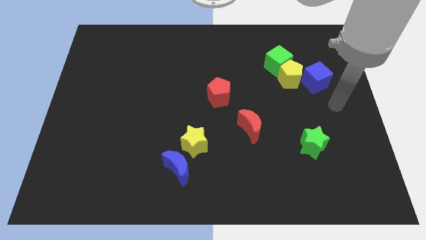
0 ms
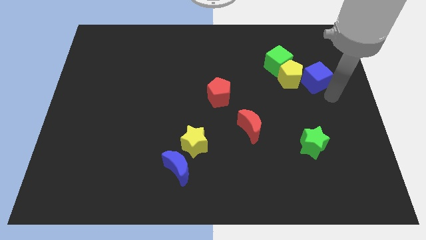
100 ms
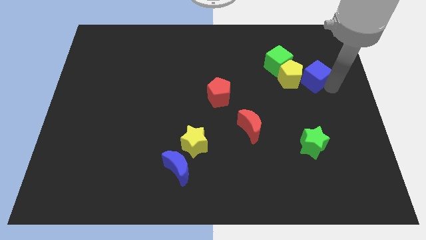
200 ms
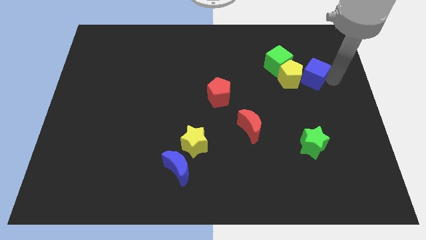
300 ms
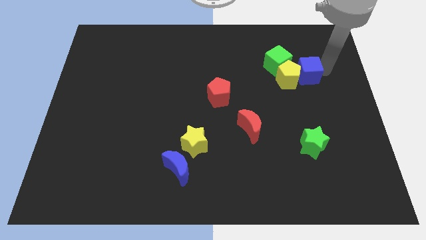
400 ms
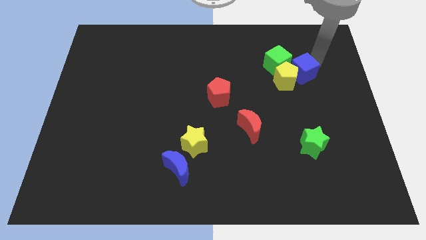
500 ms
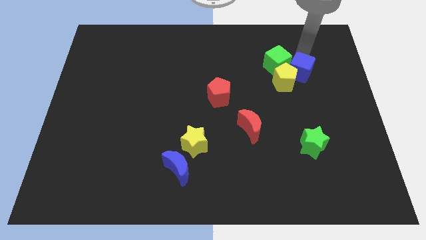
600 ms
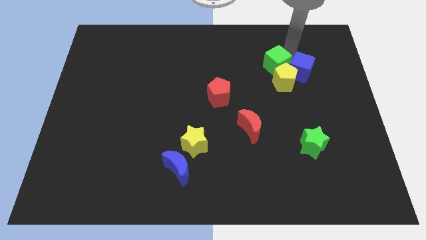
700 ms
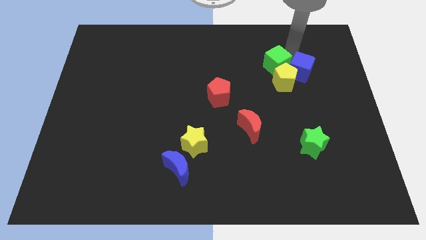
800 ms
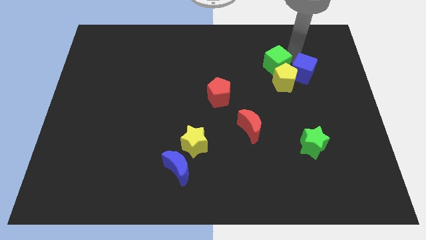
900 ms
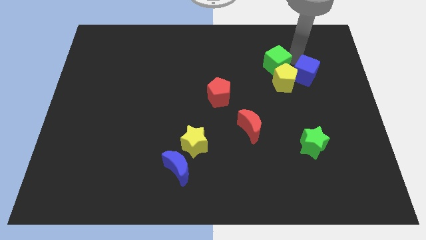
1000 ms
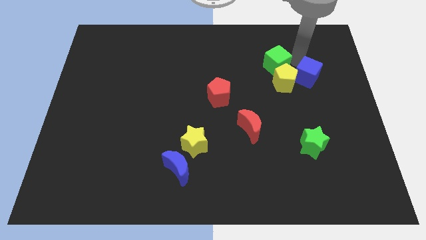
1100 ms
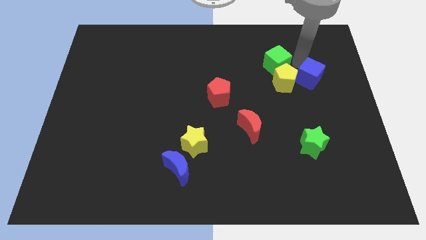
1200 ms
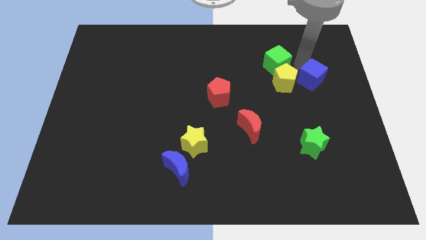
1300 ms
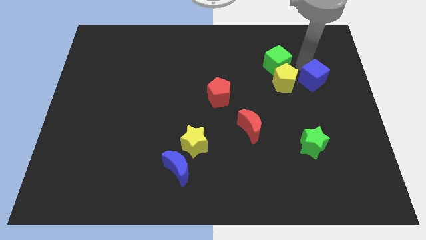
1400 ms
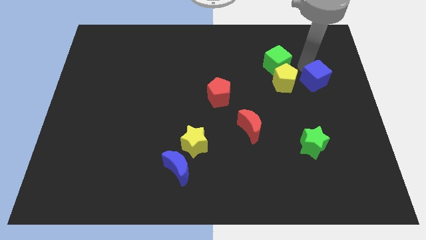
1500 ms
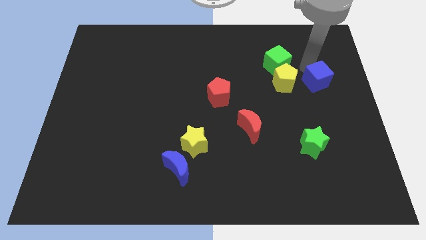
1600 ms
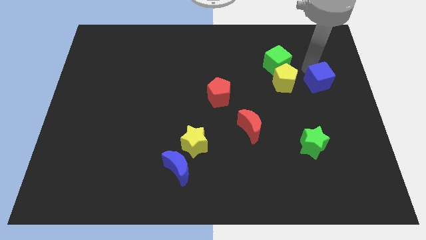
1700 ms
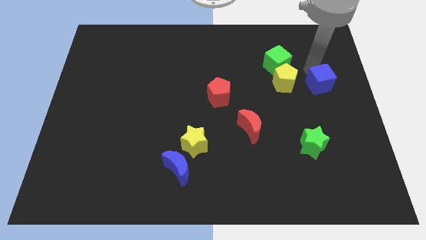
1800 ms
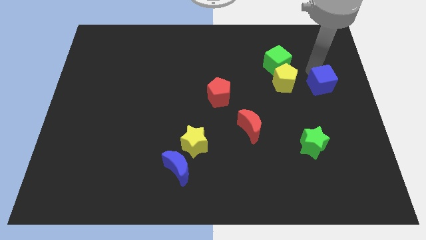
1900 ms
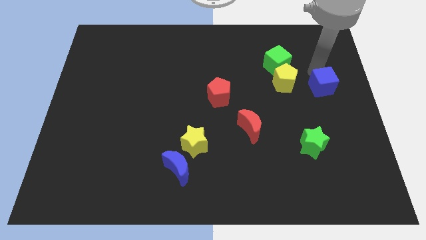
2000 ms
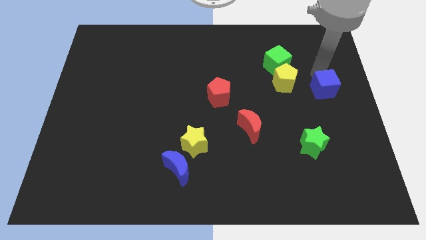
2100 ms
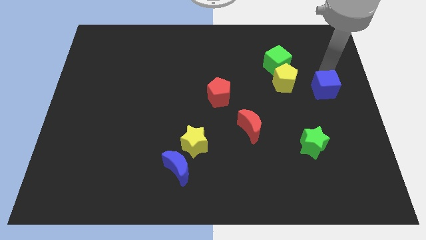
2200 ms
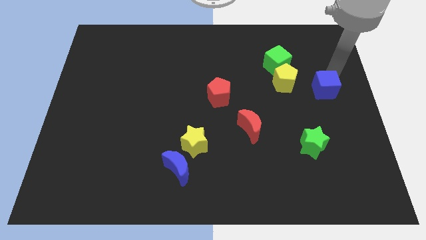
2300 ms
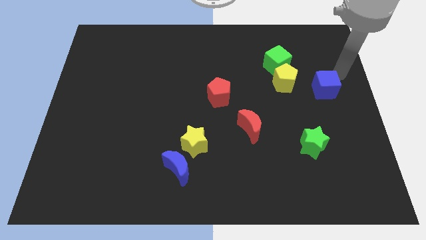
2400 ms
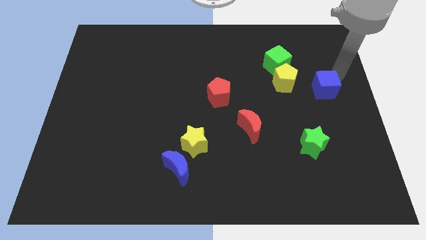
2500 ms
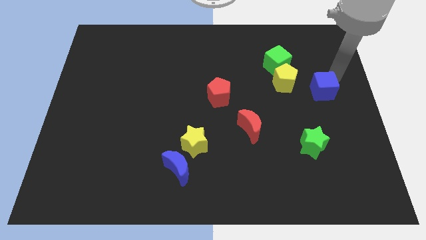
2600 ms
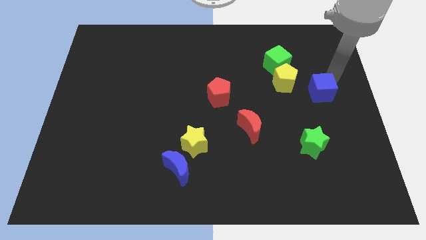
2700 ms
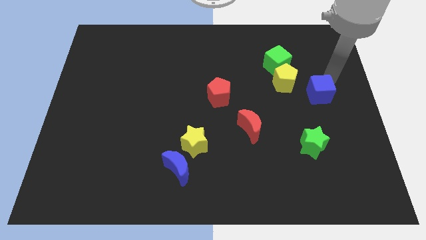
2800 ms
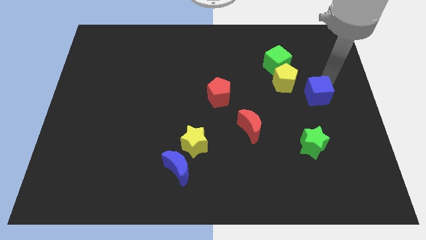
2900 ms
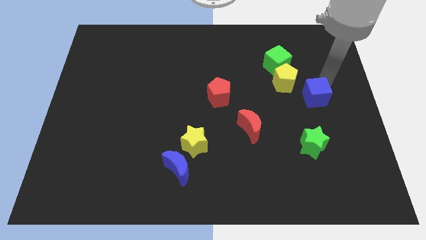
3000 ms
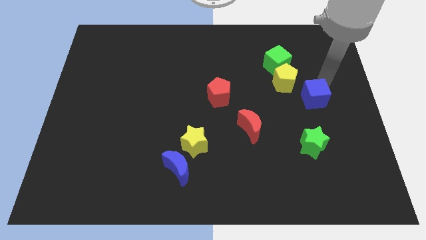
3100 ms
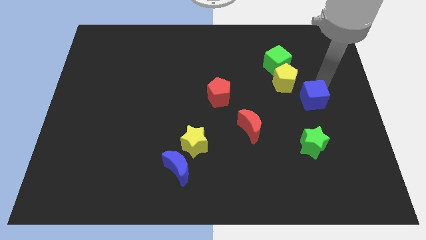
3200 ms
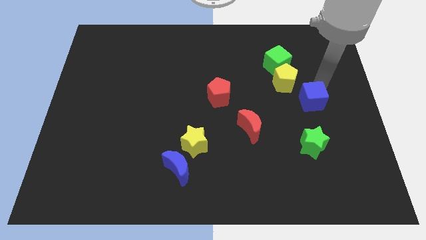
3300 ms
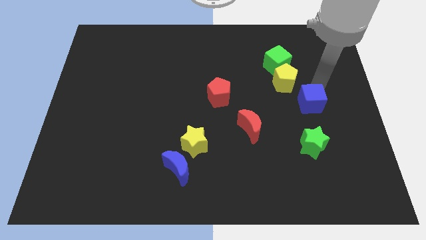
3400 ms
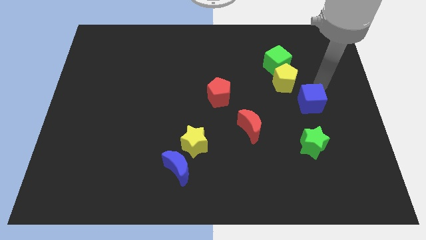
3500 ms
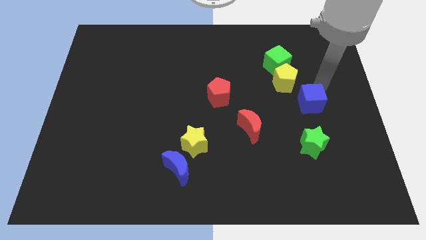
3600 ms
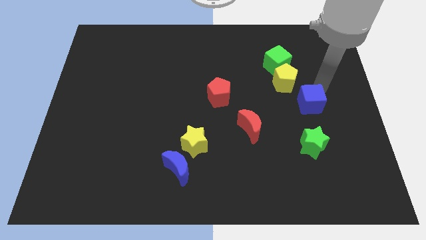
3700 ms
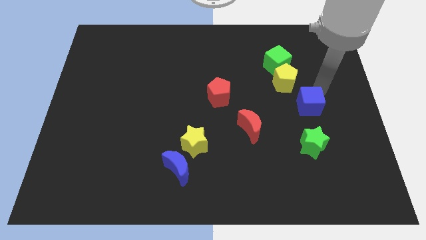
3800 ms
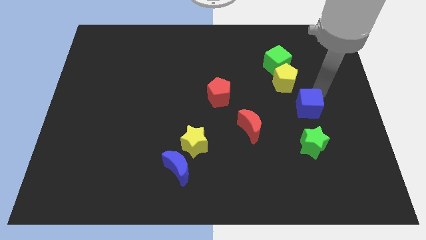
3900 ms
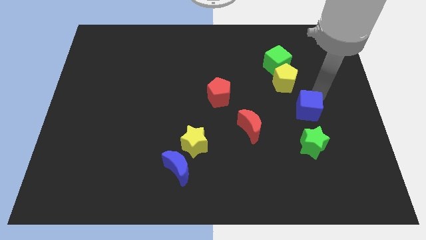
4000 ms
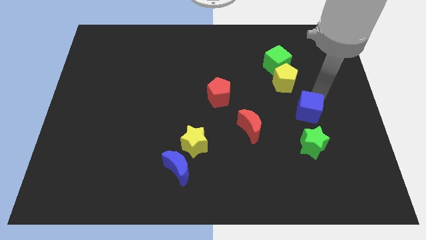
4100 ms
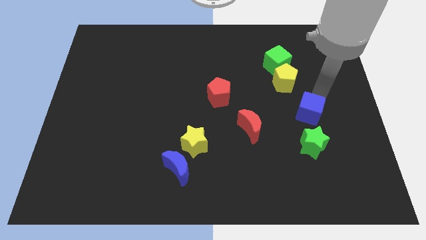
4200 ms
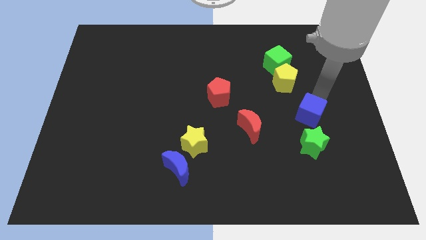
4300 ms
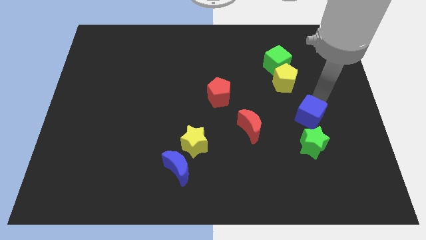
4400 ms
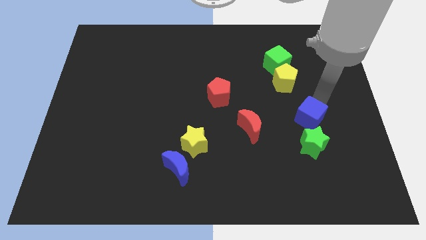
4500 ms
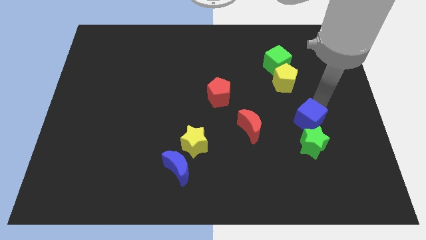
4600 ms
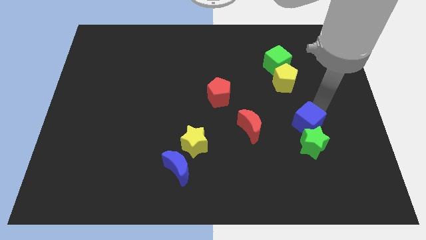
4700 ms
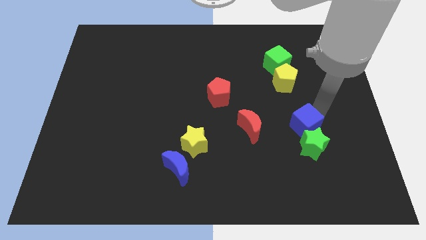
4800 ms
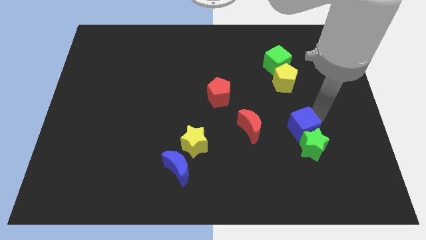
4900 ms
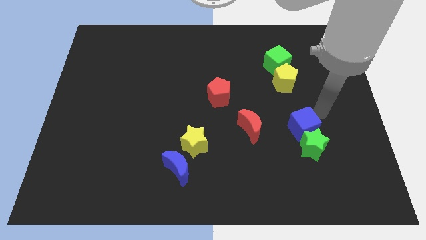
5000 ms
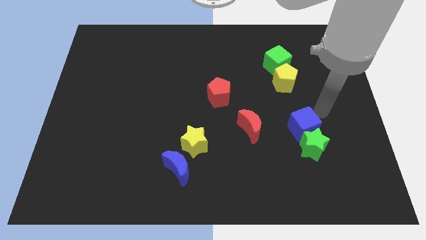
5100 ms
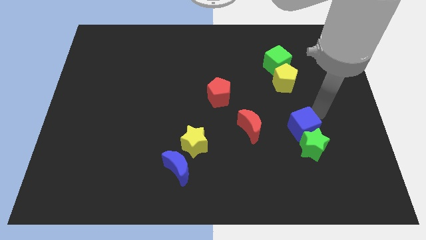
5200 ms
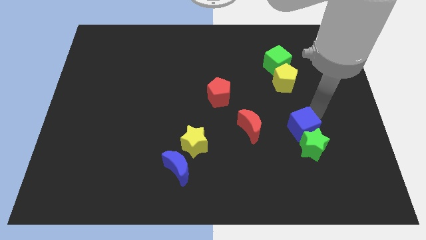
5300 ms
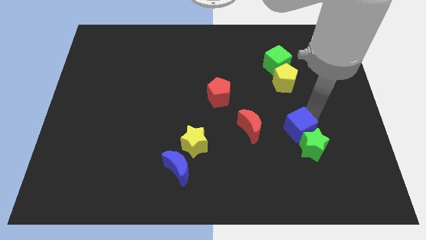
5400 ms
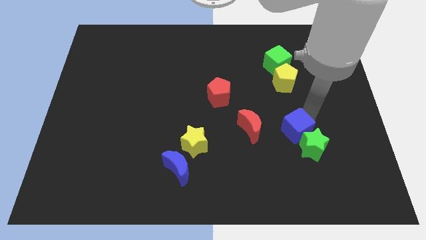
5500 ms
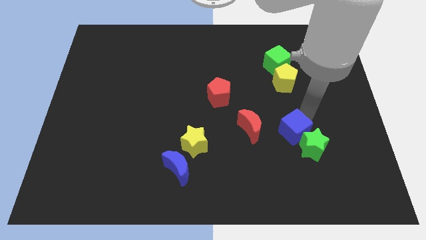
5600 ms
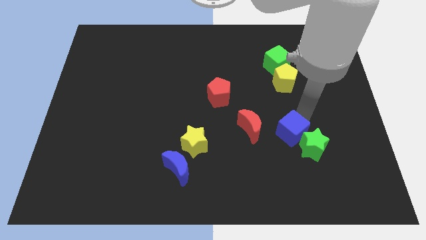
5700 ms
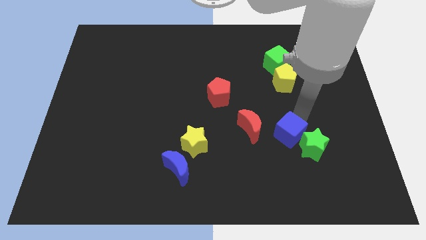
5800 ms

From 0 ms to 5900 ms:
move the blue cube diagonally down and to the right of the red moon

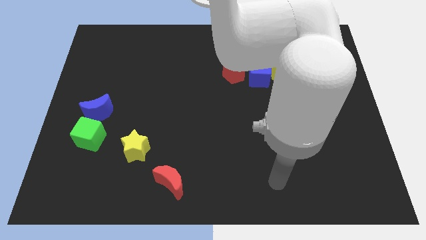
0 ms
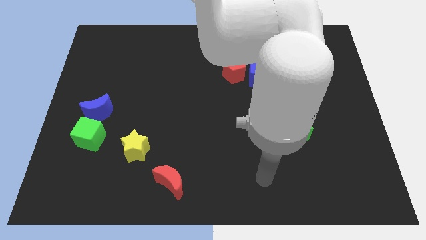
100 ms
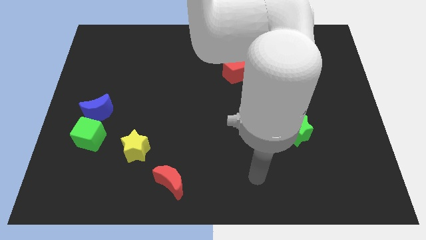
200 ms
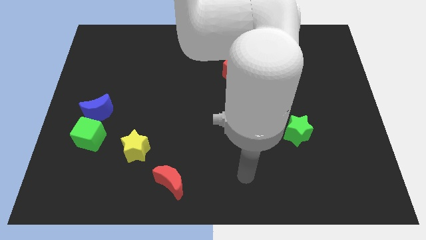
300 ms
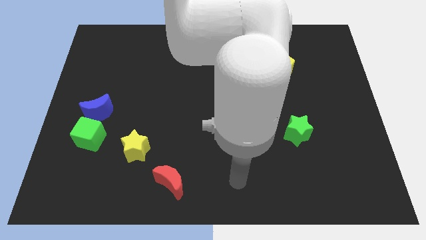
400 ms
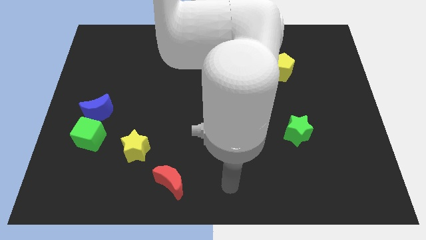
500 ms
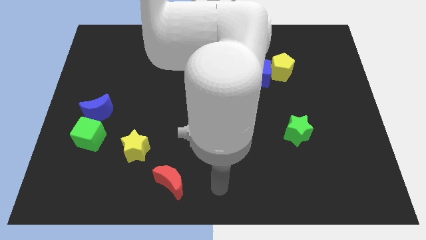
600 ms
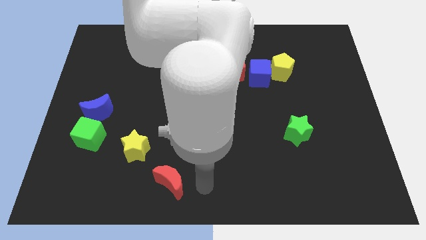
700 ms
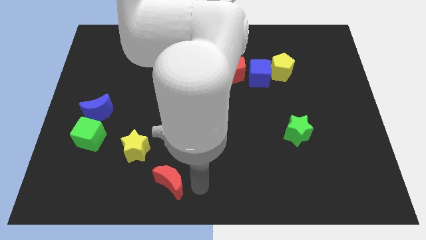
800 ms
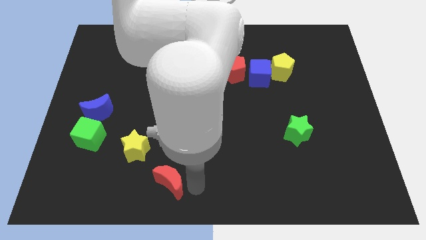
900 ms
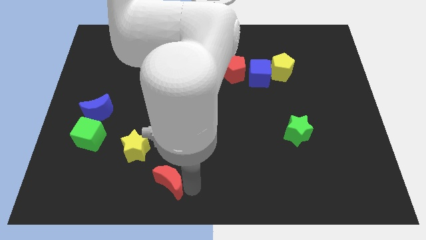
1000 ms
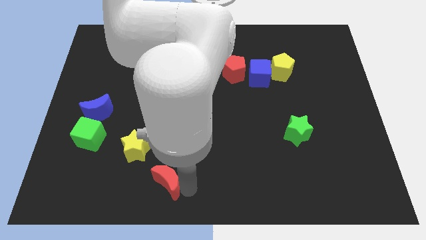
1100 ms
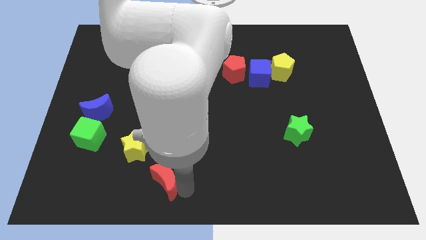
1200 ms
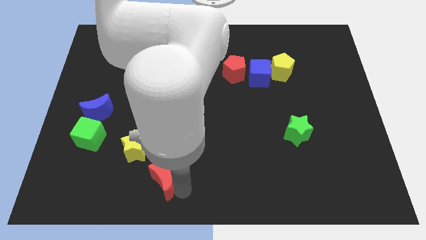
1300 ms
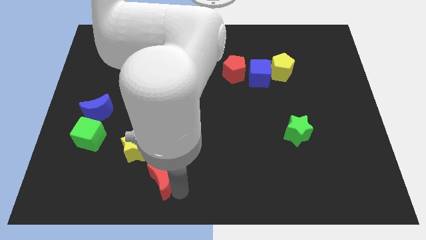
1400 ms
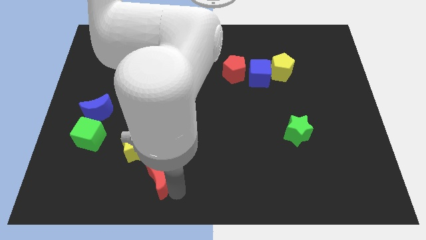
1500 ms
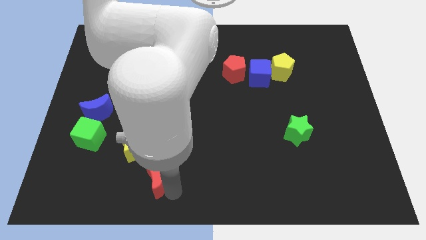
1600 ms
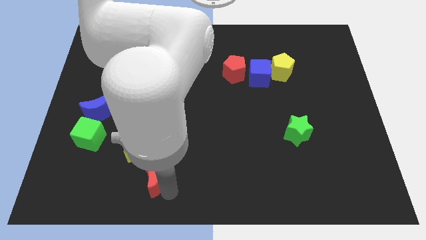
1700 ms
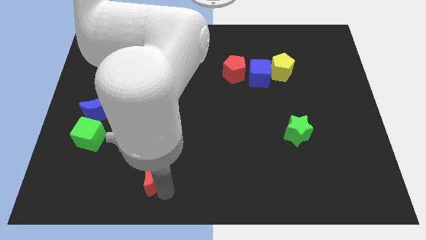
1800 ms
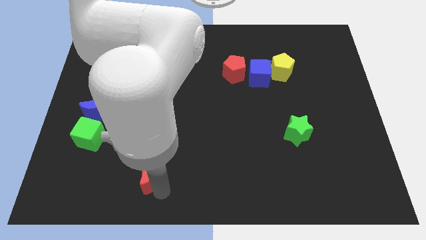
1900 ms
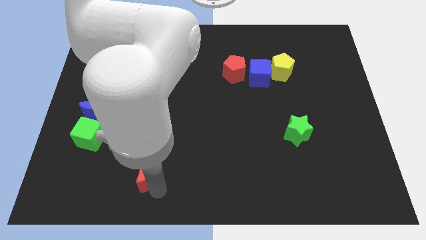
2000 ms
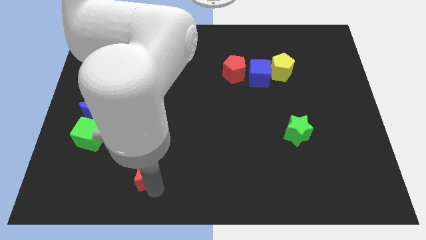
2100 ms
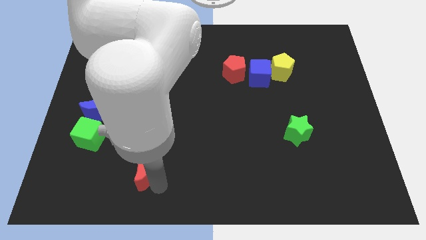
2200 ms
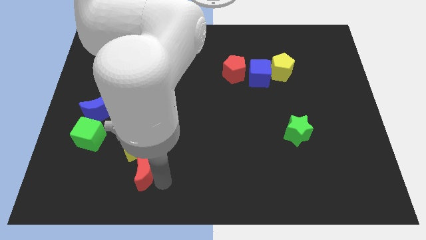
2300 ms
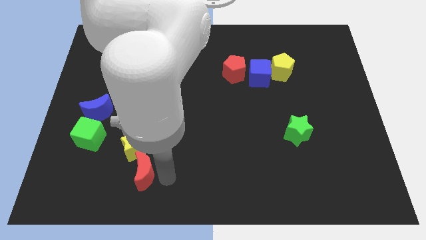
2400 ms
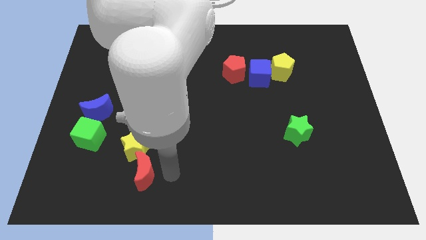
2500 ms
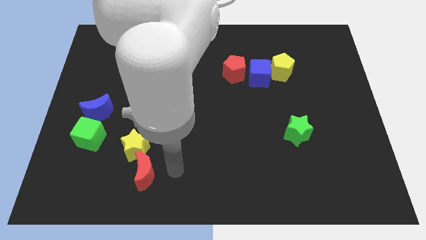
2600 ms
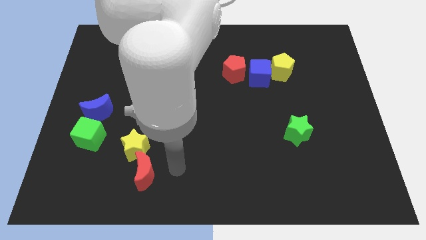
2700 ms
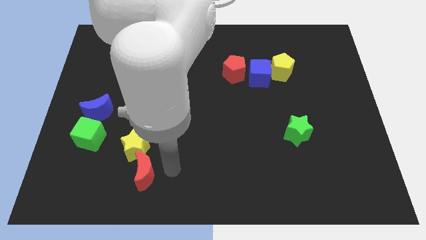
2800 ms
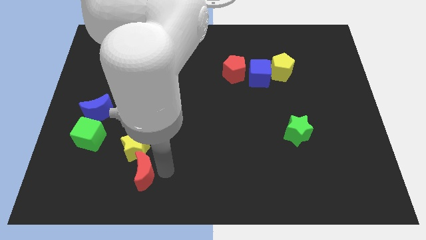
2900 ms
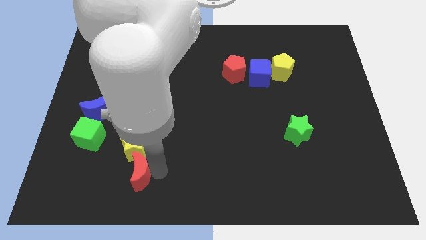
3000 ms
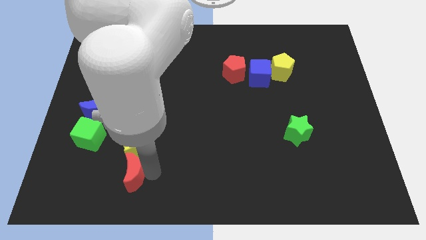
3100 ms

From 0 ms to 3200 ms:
move the red moon diagonally down and to the left of the yellow star
